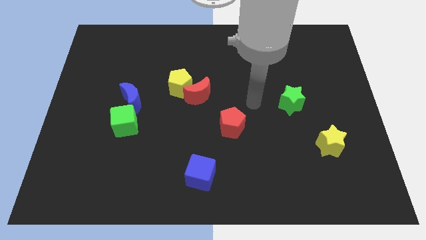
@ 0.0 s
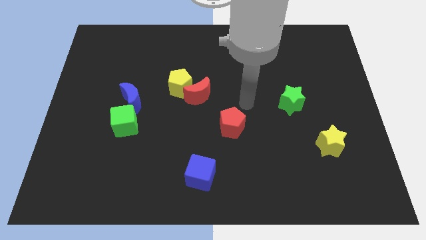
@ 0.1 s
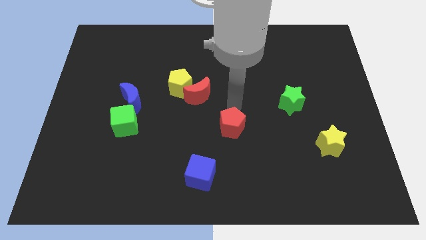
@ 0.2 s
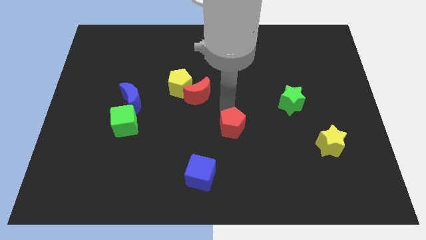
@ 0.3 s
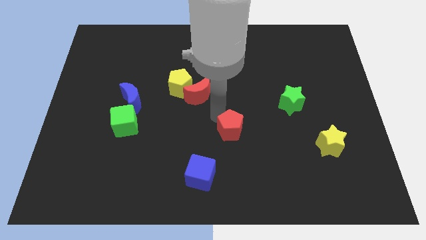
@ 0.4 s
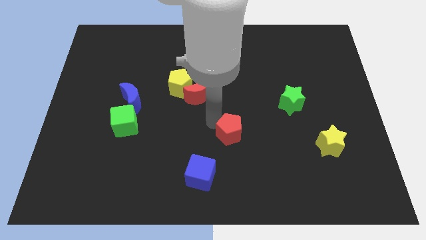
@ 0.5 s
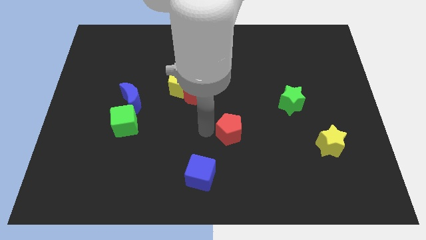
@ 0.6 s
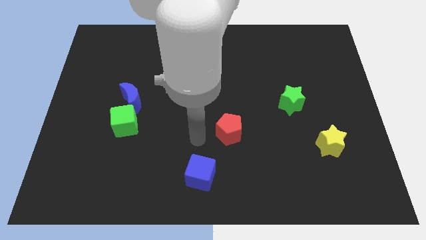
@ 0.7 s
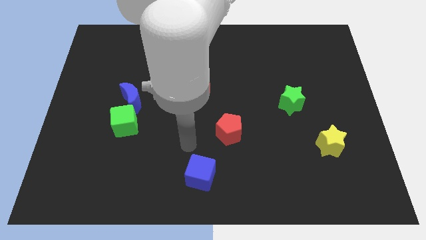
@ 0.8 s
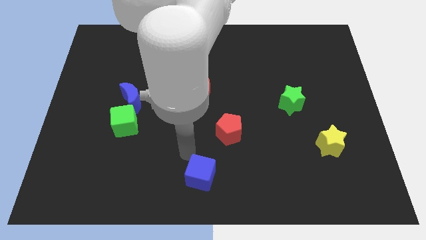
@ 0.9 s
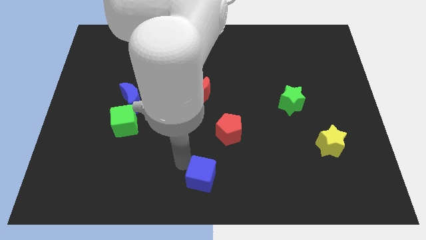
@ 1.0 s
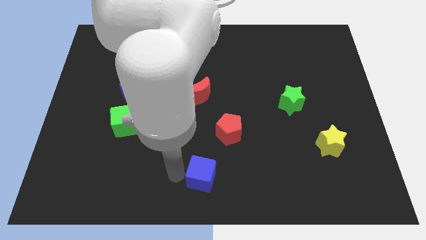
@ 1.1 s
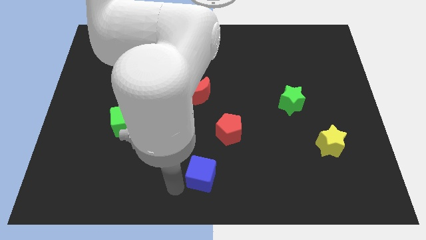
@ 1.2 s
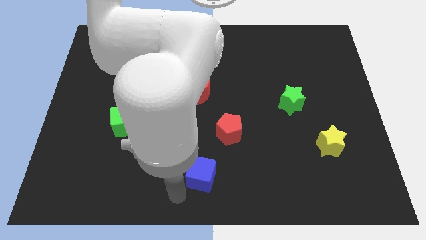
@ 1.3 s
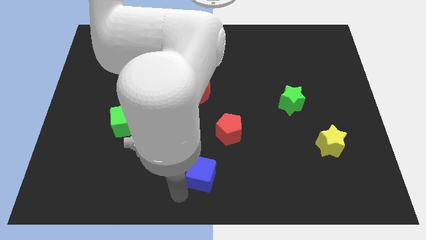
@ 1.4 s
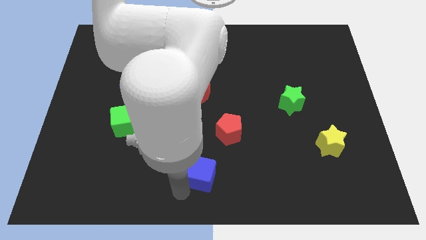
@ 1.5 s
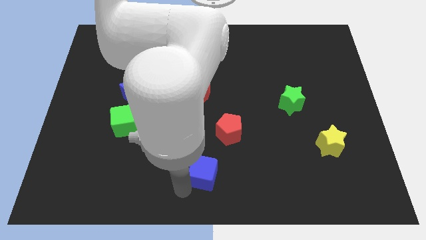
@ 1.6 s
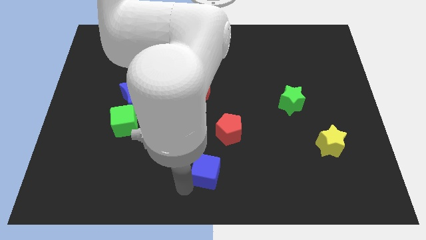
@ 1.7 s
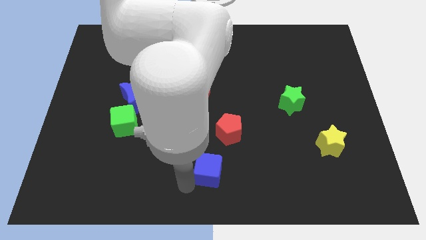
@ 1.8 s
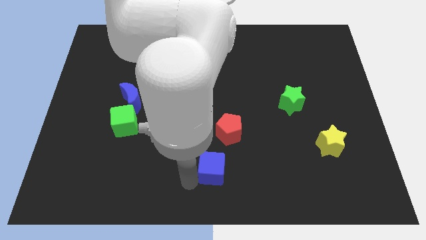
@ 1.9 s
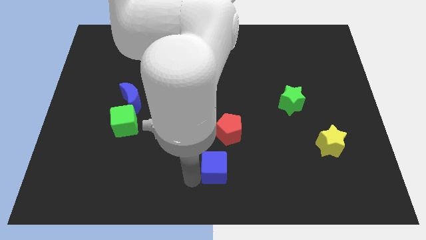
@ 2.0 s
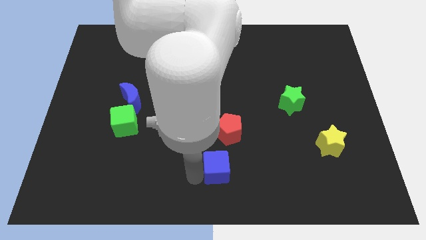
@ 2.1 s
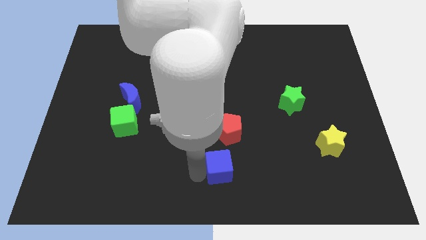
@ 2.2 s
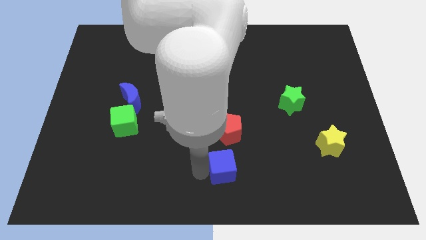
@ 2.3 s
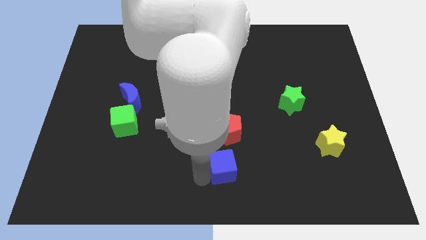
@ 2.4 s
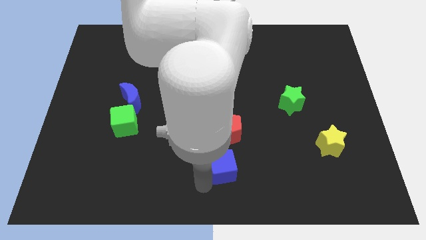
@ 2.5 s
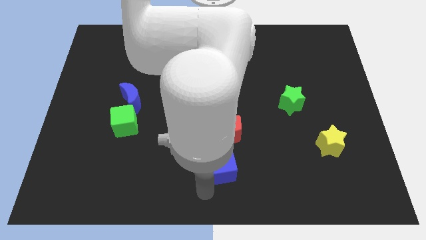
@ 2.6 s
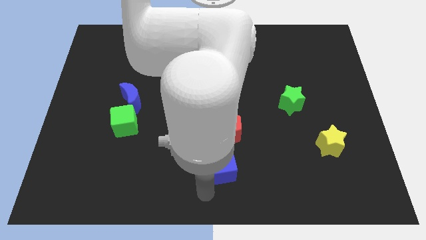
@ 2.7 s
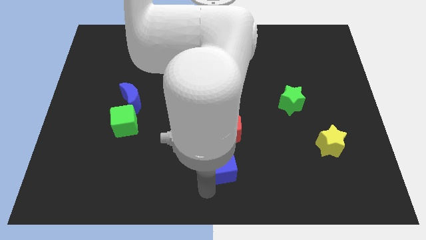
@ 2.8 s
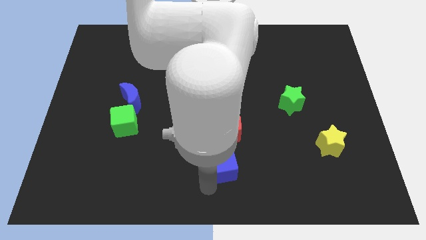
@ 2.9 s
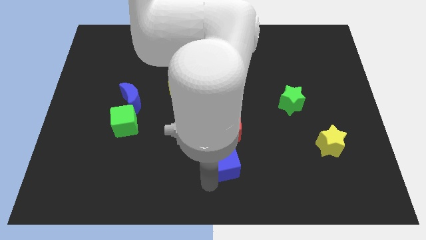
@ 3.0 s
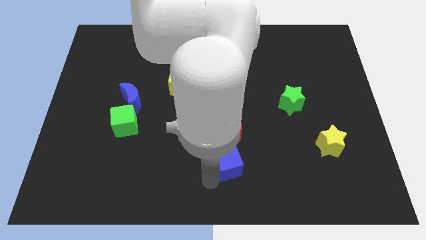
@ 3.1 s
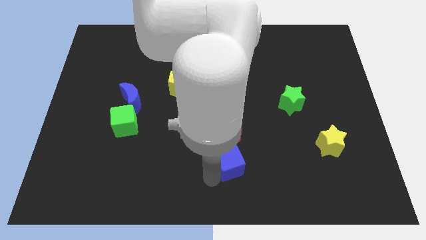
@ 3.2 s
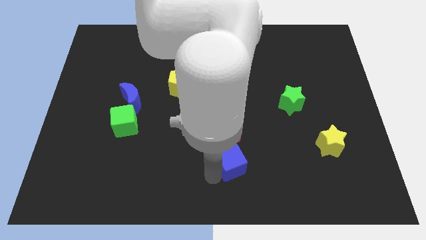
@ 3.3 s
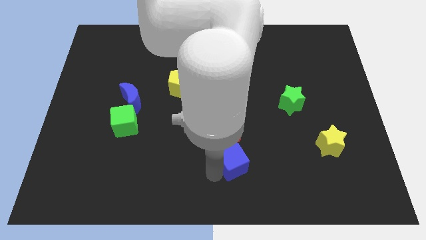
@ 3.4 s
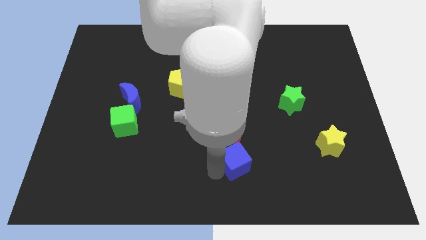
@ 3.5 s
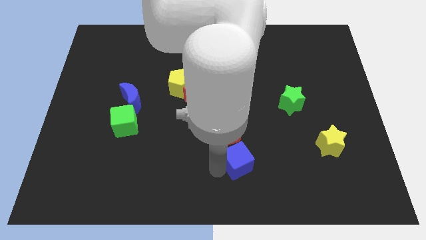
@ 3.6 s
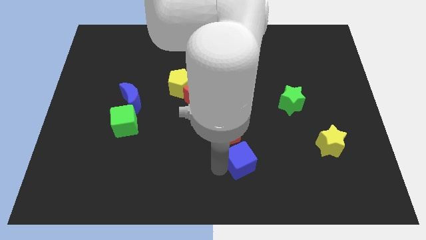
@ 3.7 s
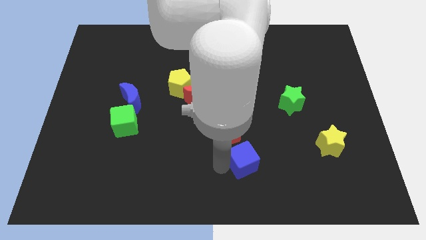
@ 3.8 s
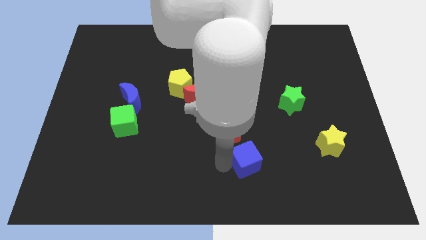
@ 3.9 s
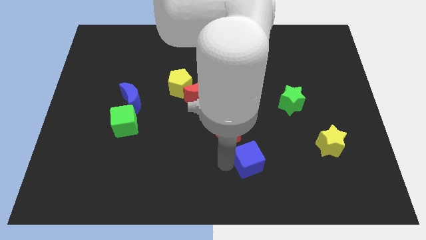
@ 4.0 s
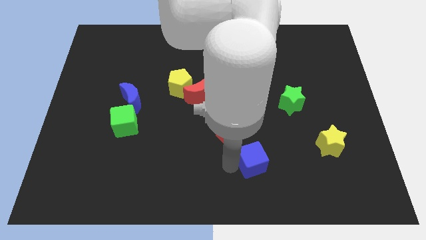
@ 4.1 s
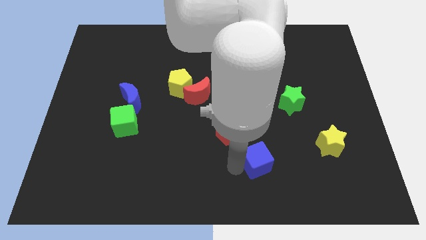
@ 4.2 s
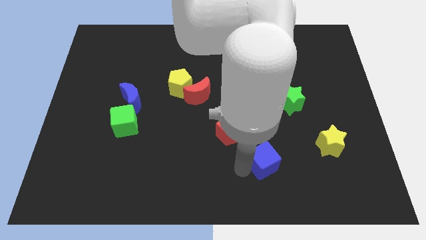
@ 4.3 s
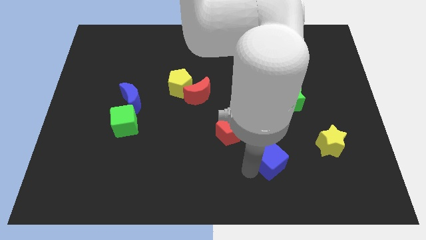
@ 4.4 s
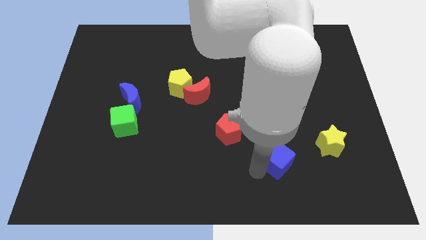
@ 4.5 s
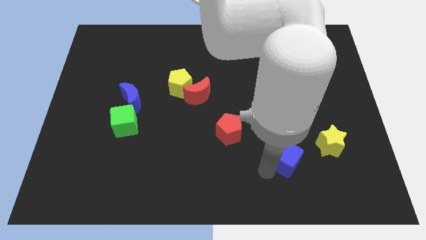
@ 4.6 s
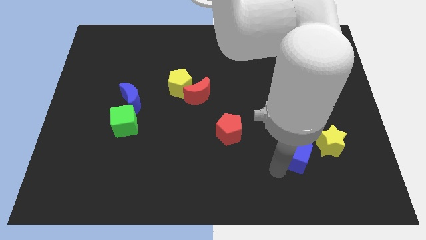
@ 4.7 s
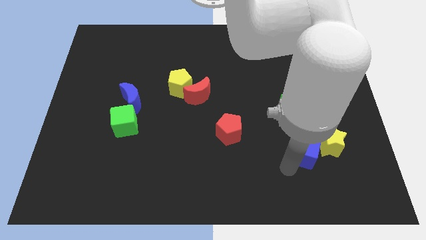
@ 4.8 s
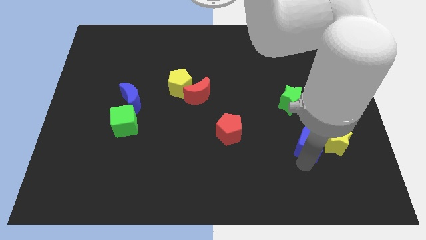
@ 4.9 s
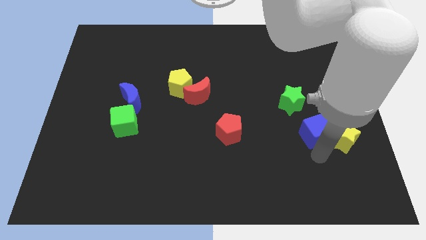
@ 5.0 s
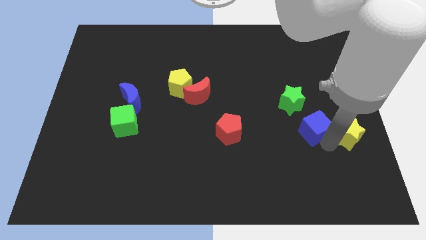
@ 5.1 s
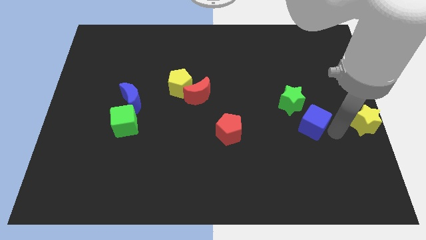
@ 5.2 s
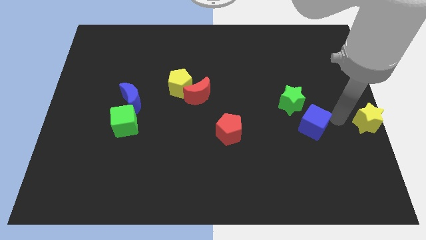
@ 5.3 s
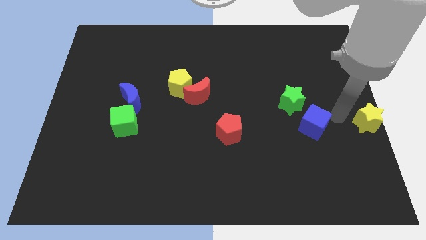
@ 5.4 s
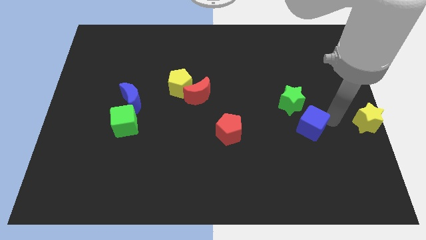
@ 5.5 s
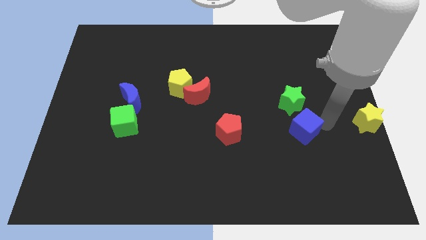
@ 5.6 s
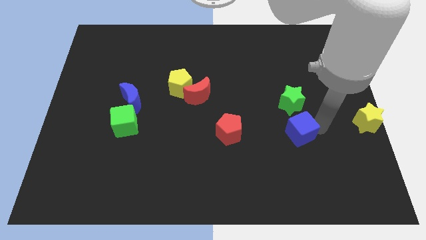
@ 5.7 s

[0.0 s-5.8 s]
move the blue cube to the right of the red pentagon

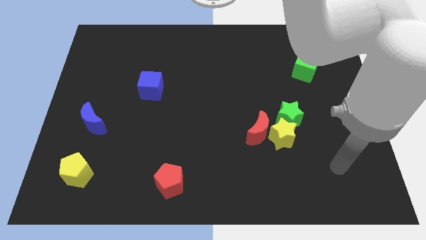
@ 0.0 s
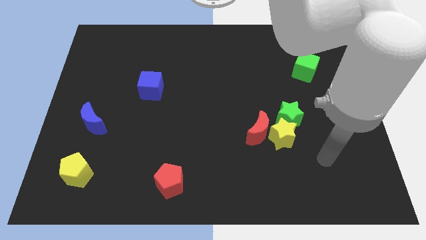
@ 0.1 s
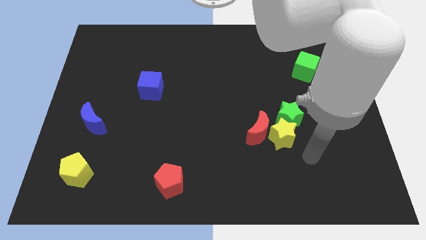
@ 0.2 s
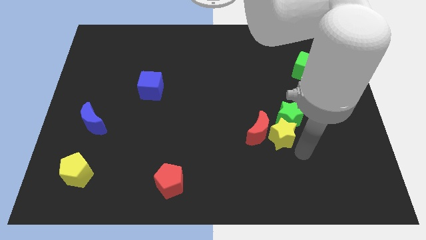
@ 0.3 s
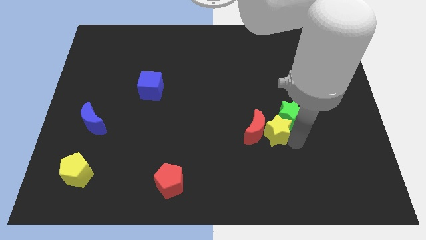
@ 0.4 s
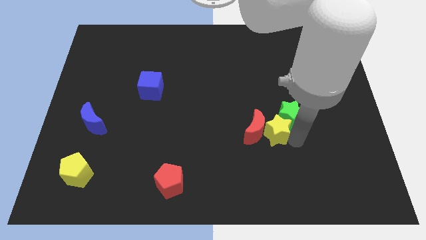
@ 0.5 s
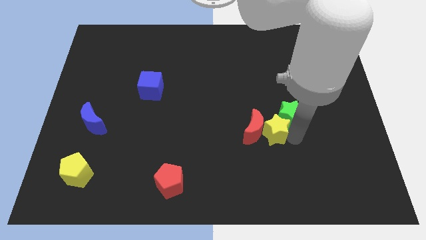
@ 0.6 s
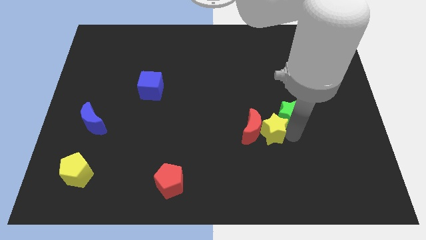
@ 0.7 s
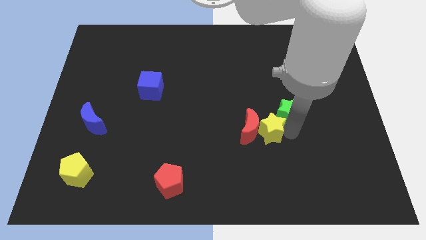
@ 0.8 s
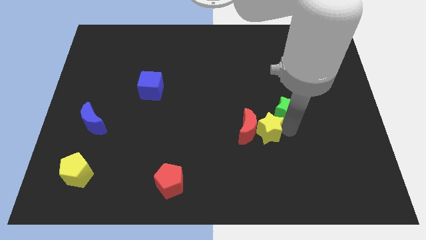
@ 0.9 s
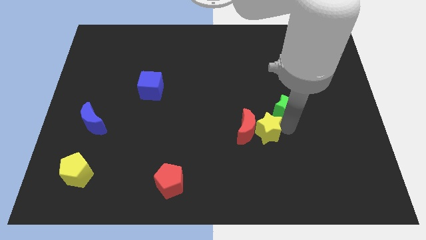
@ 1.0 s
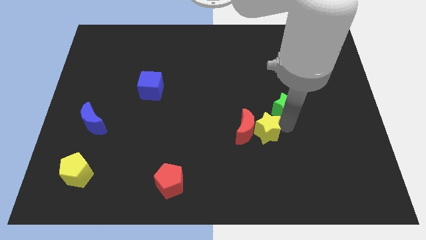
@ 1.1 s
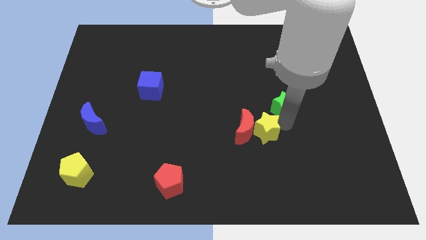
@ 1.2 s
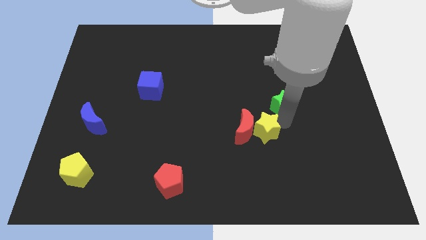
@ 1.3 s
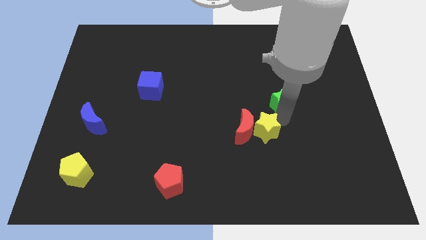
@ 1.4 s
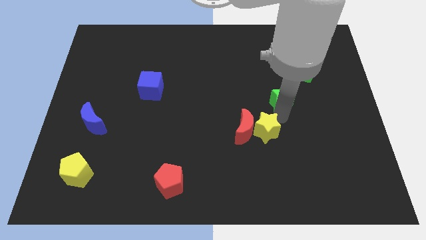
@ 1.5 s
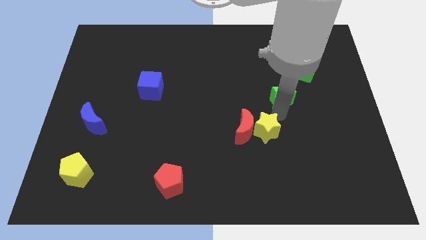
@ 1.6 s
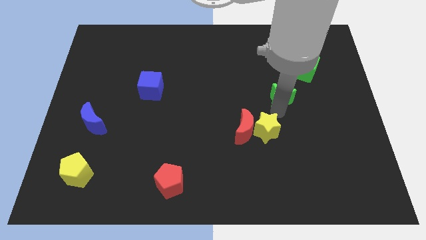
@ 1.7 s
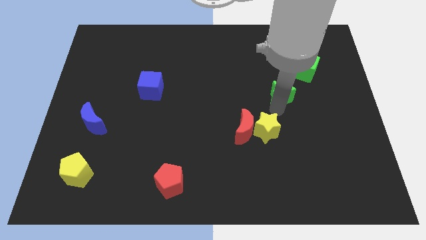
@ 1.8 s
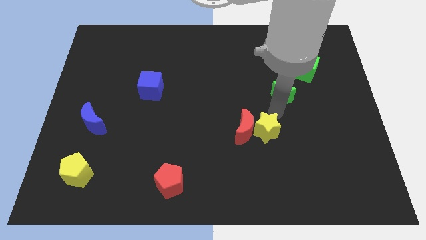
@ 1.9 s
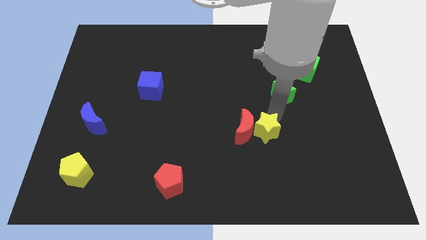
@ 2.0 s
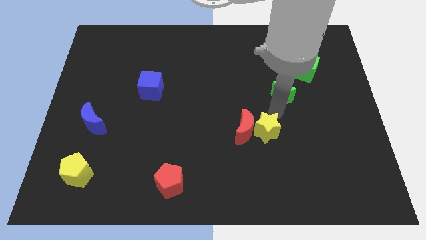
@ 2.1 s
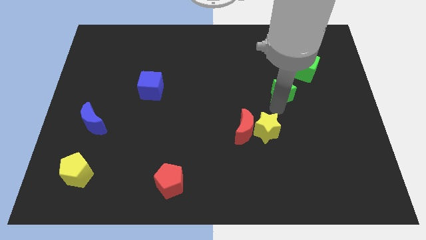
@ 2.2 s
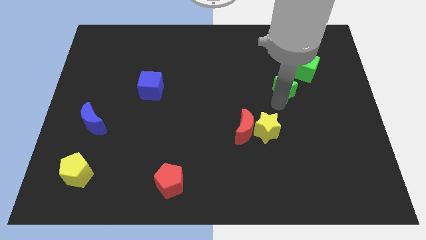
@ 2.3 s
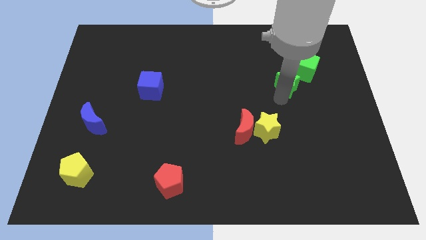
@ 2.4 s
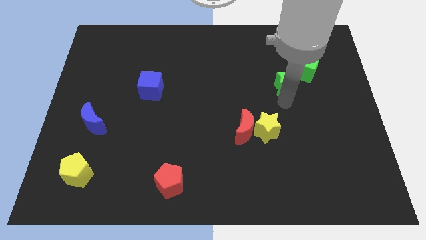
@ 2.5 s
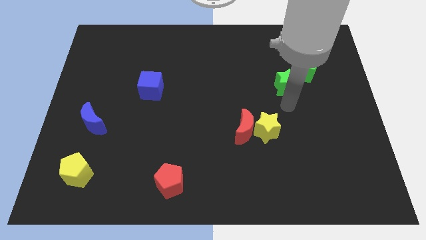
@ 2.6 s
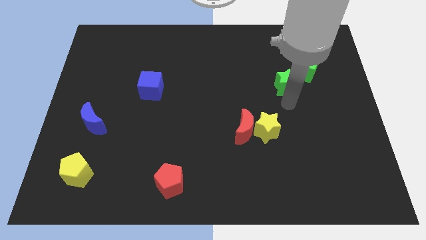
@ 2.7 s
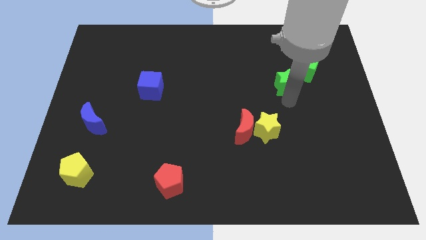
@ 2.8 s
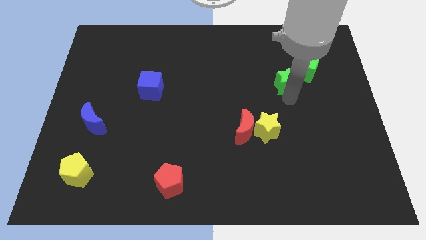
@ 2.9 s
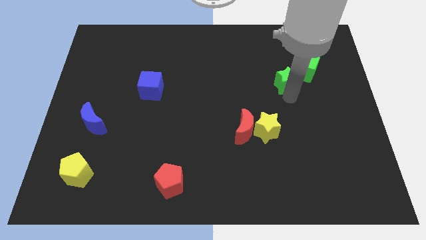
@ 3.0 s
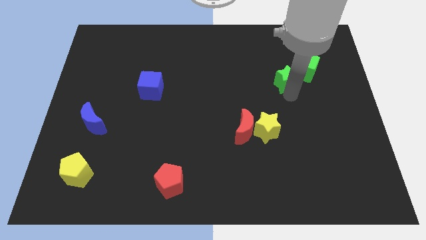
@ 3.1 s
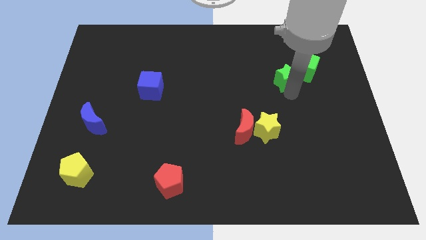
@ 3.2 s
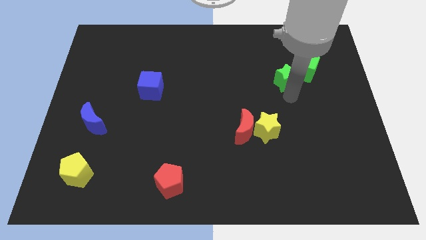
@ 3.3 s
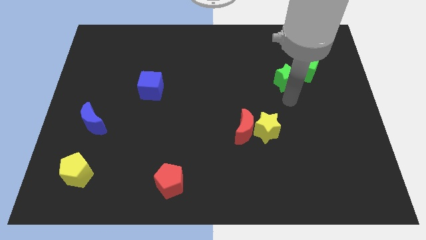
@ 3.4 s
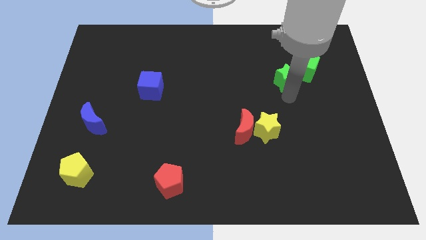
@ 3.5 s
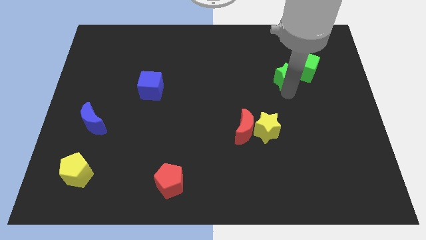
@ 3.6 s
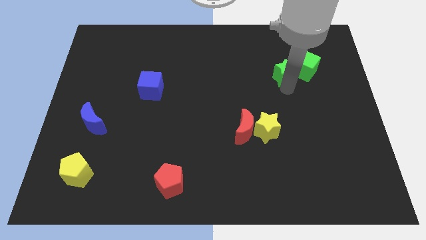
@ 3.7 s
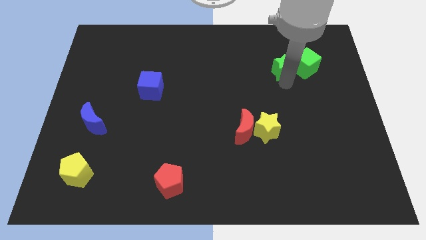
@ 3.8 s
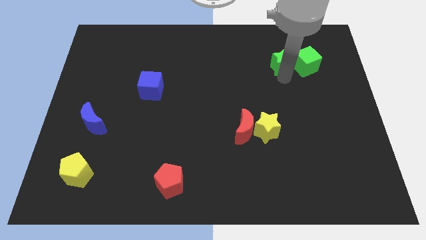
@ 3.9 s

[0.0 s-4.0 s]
move the green star diagonally up and to the left of the green cube
